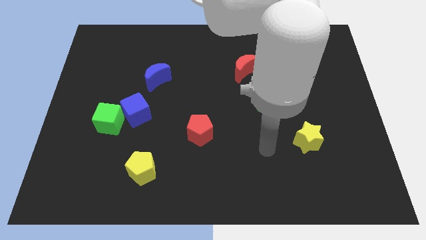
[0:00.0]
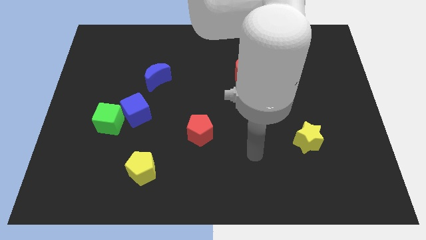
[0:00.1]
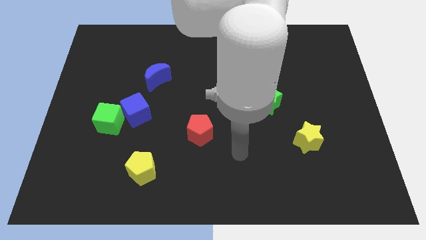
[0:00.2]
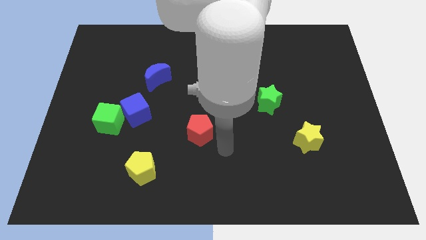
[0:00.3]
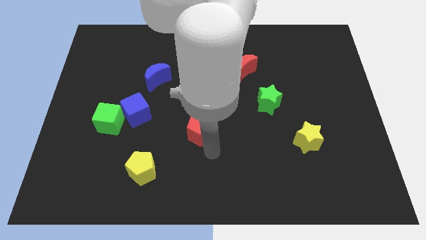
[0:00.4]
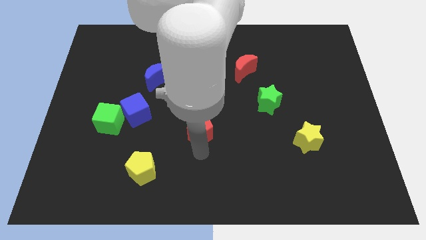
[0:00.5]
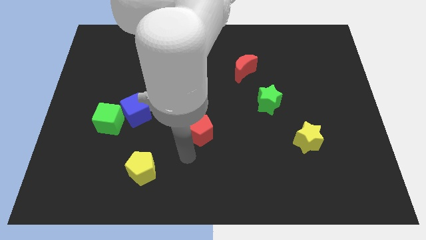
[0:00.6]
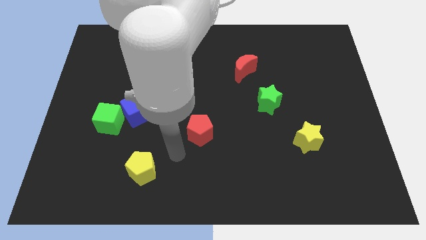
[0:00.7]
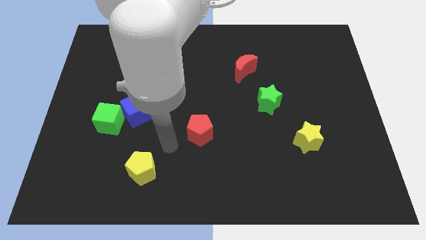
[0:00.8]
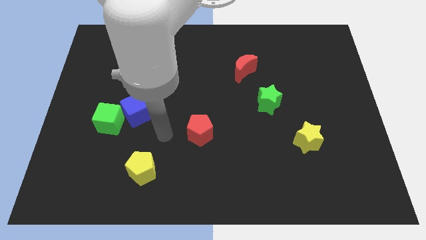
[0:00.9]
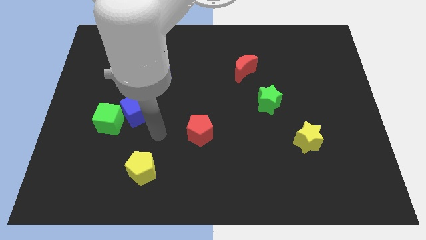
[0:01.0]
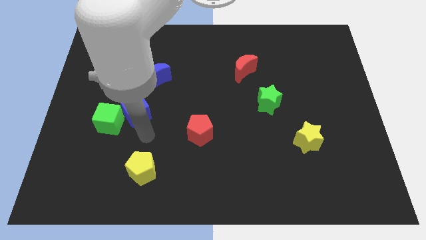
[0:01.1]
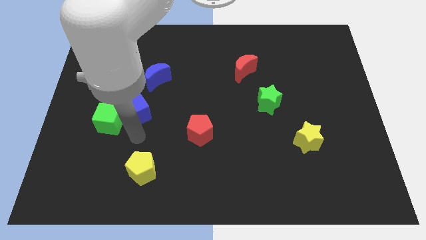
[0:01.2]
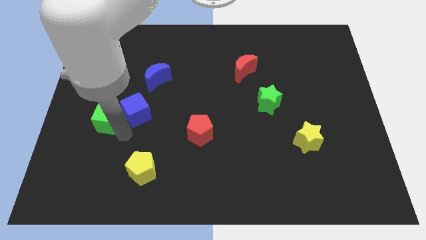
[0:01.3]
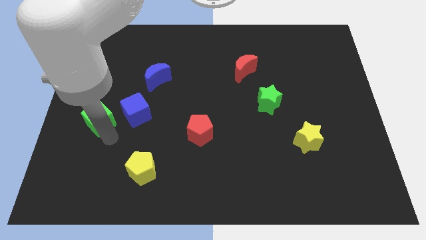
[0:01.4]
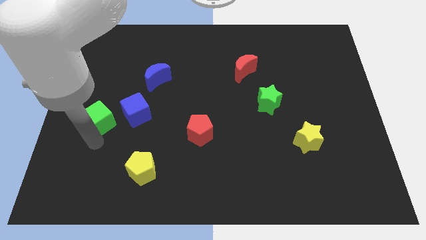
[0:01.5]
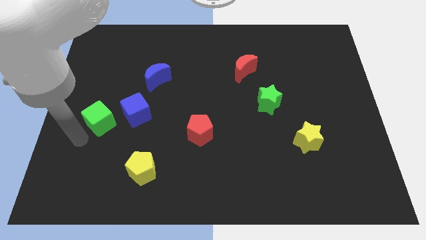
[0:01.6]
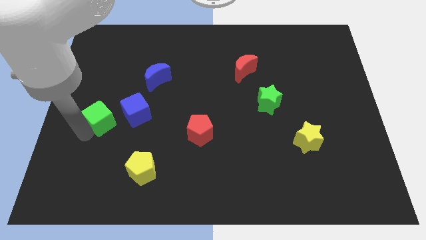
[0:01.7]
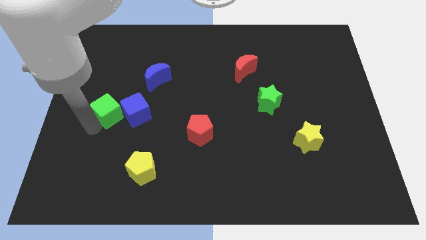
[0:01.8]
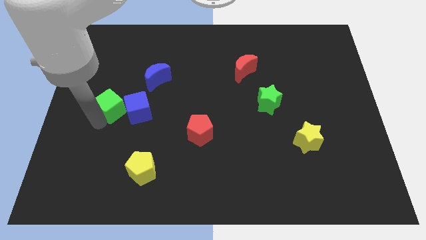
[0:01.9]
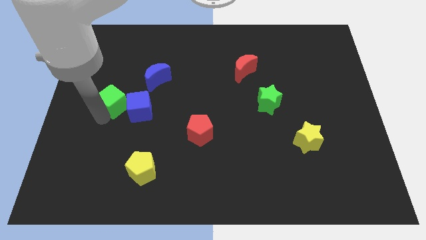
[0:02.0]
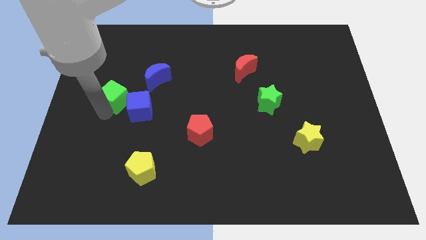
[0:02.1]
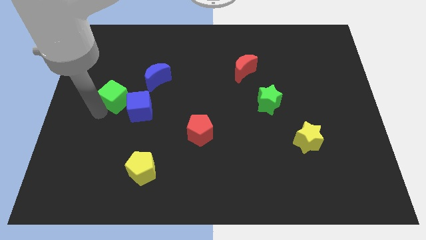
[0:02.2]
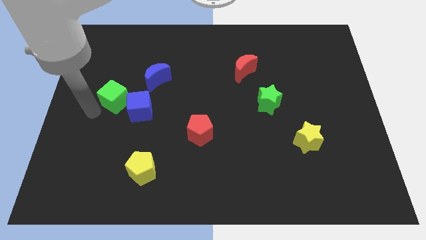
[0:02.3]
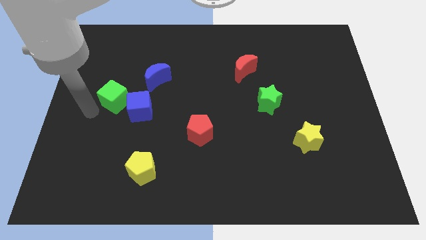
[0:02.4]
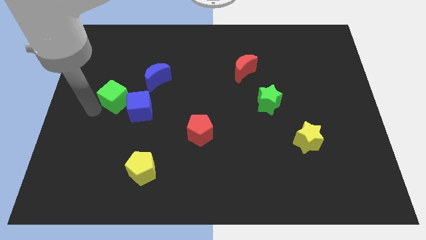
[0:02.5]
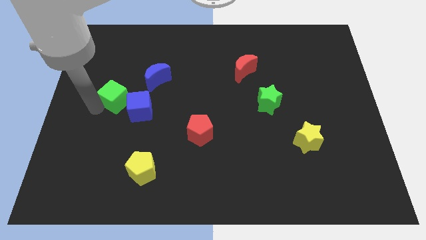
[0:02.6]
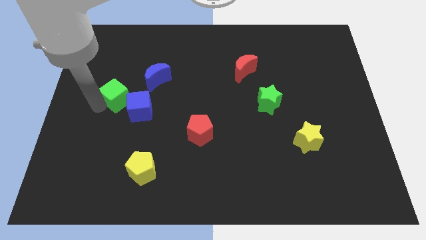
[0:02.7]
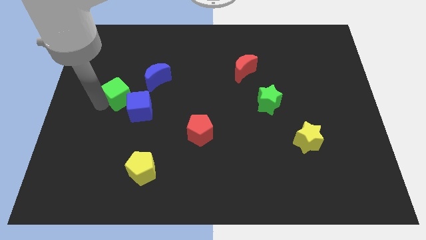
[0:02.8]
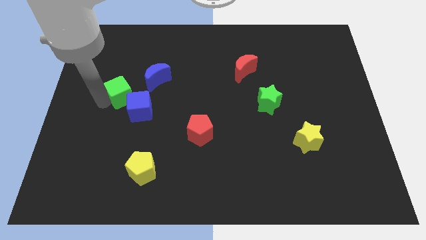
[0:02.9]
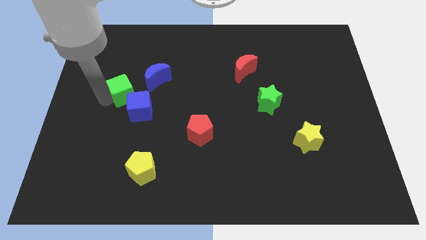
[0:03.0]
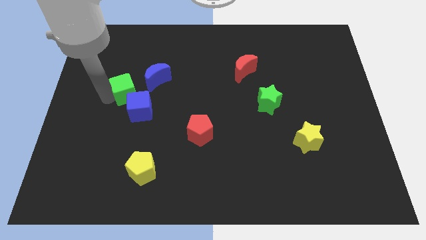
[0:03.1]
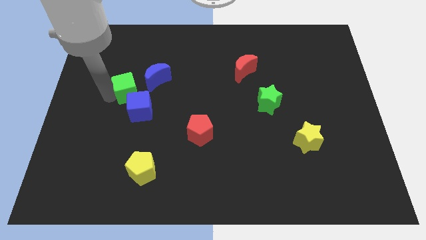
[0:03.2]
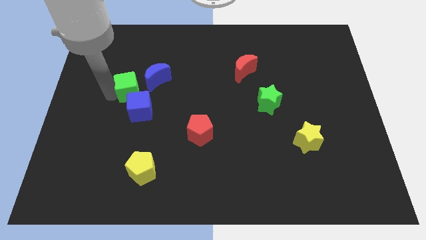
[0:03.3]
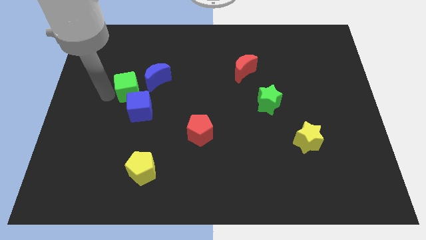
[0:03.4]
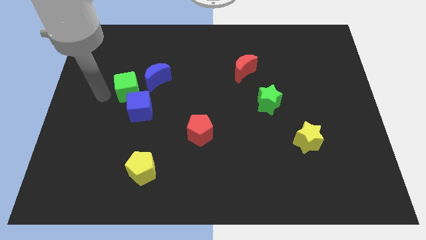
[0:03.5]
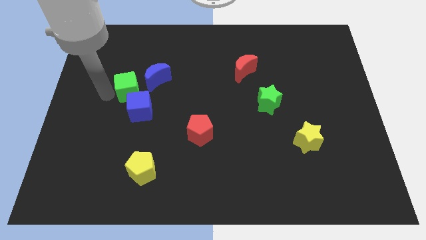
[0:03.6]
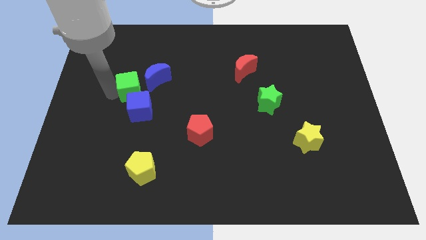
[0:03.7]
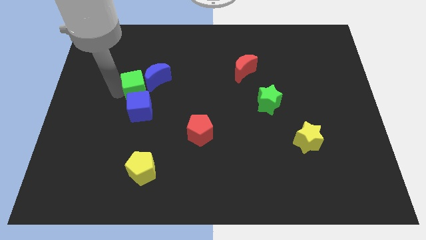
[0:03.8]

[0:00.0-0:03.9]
slide the green cube towards the blue moon

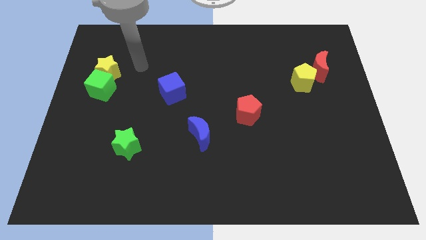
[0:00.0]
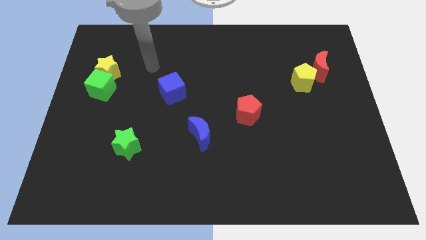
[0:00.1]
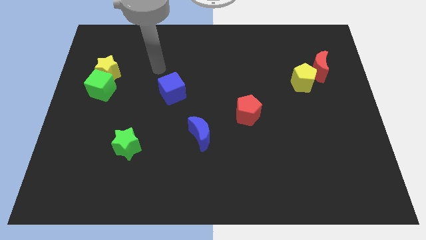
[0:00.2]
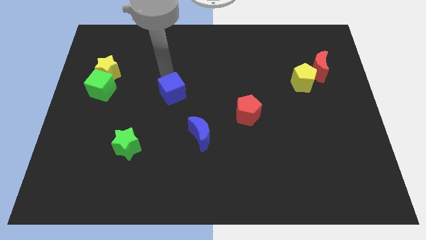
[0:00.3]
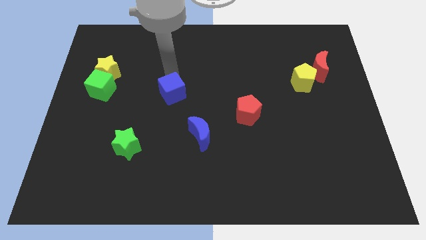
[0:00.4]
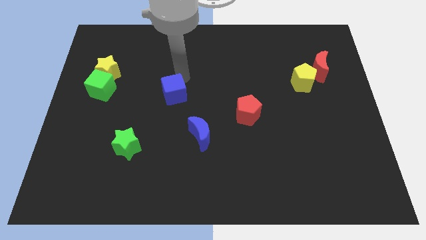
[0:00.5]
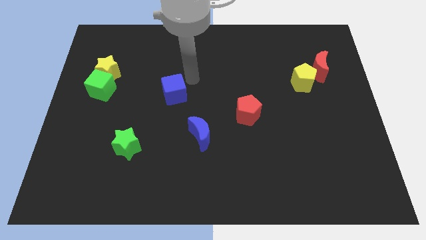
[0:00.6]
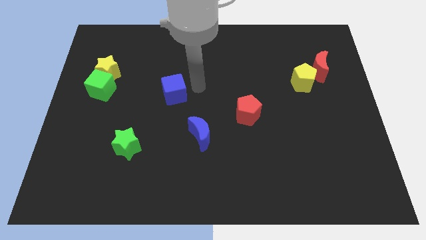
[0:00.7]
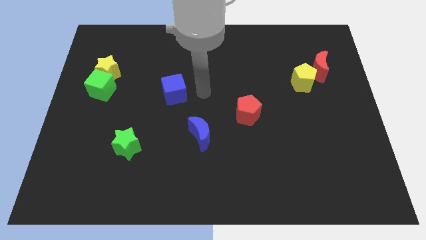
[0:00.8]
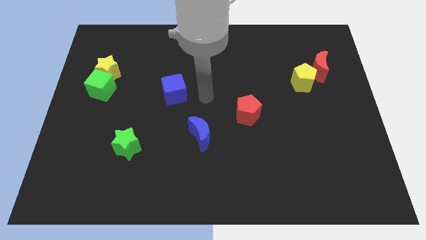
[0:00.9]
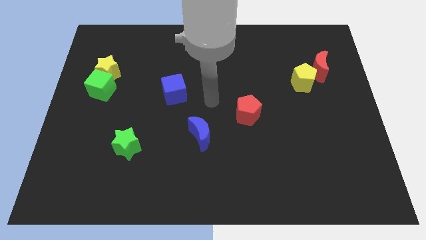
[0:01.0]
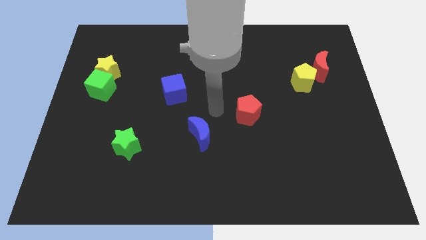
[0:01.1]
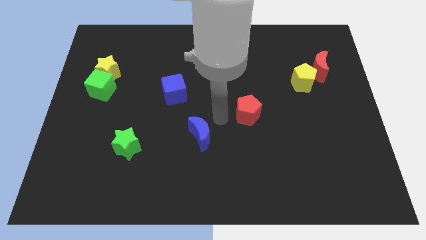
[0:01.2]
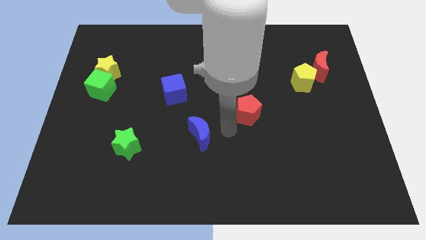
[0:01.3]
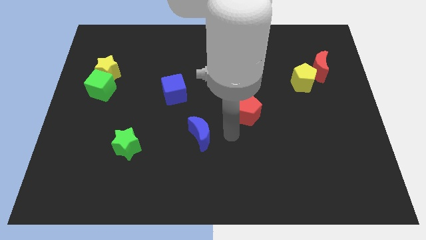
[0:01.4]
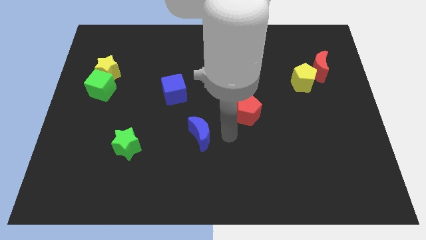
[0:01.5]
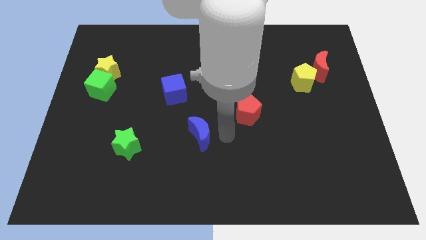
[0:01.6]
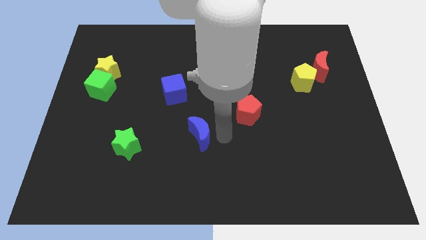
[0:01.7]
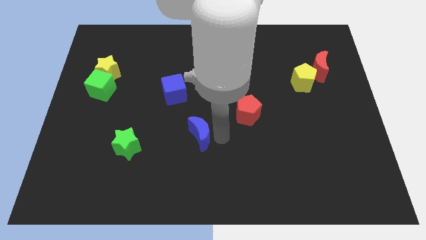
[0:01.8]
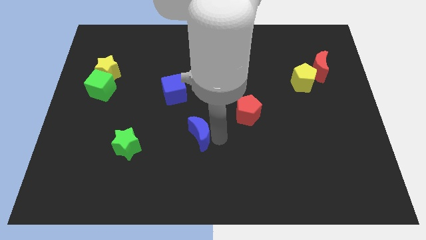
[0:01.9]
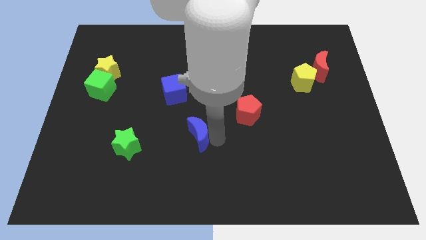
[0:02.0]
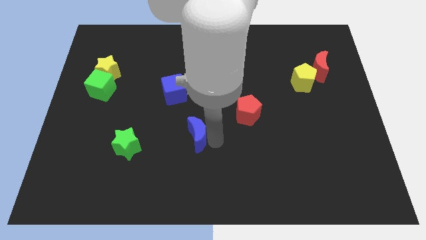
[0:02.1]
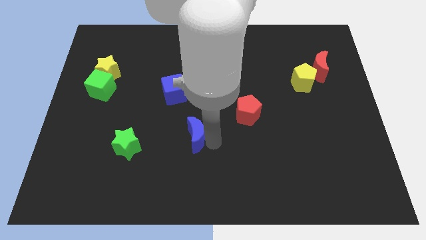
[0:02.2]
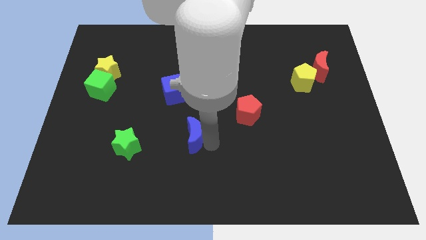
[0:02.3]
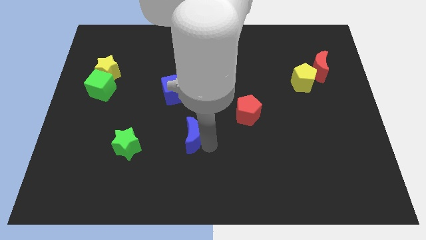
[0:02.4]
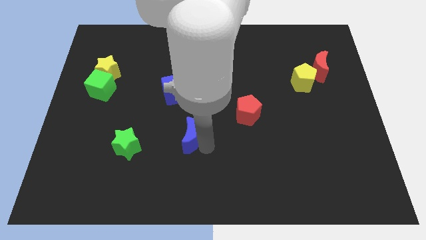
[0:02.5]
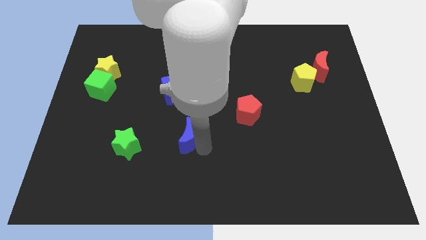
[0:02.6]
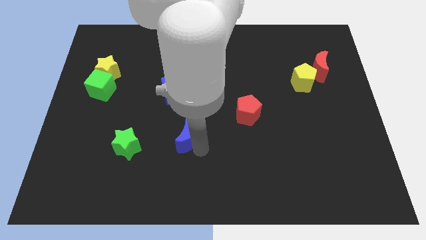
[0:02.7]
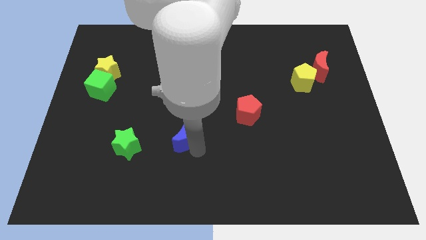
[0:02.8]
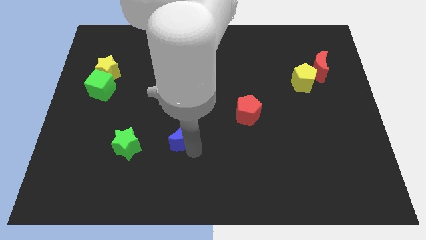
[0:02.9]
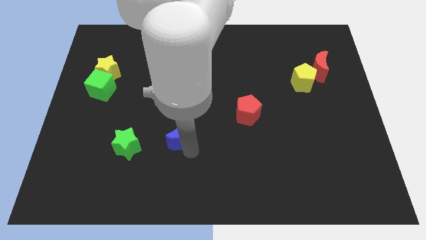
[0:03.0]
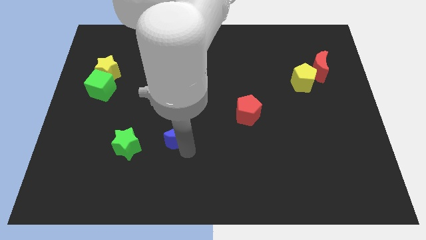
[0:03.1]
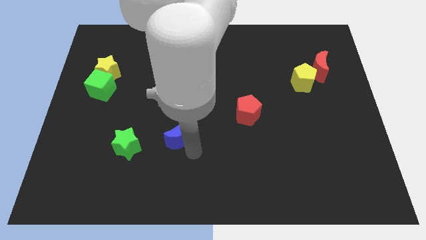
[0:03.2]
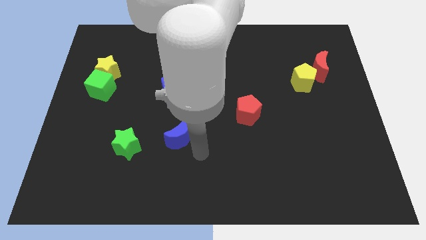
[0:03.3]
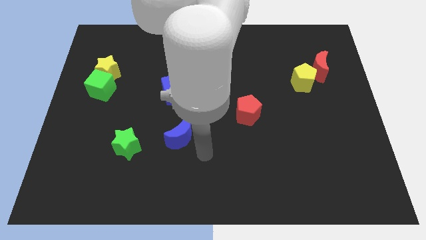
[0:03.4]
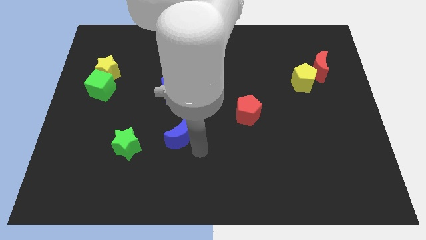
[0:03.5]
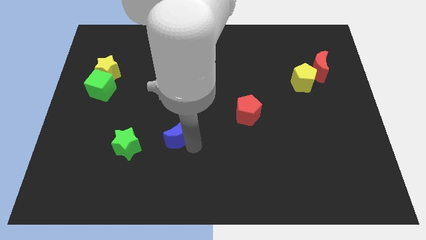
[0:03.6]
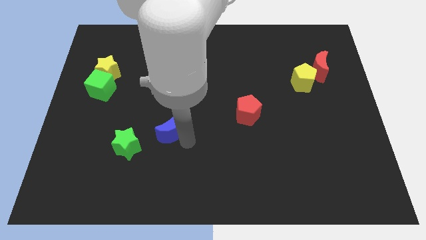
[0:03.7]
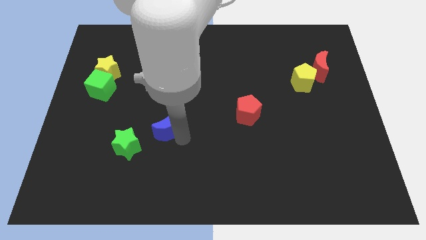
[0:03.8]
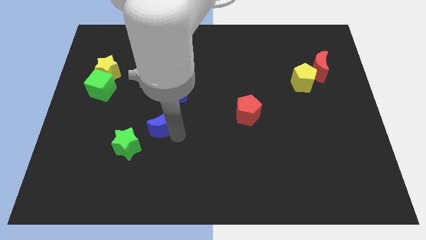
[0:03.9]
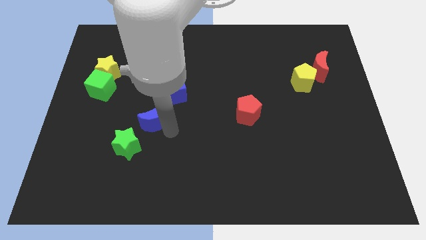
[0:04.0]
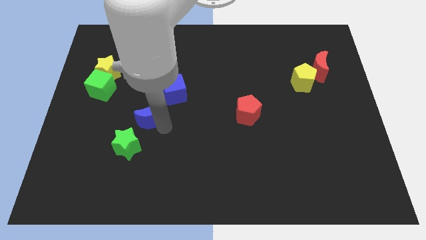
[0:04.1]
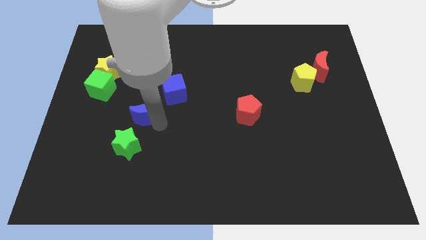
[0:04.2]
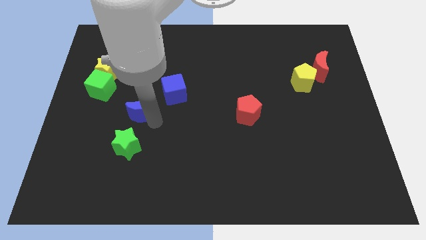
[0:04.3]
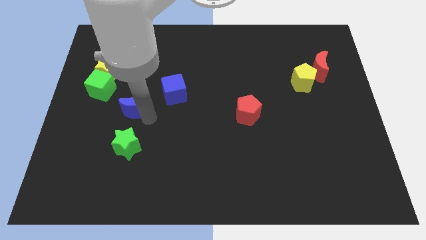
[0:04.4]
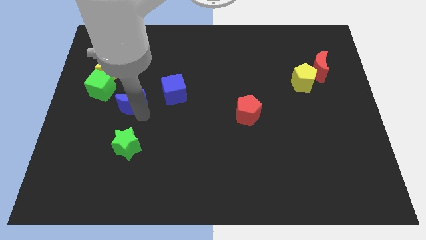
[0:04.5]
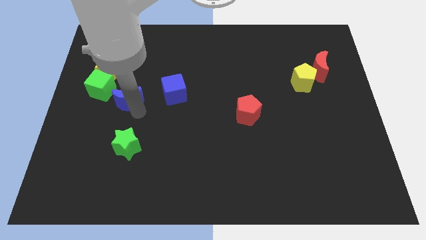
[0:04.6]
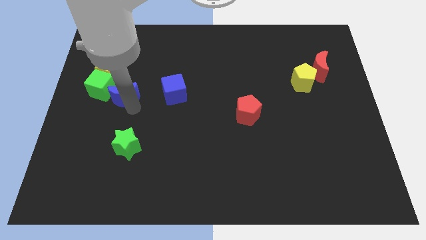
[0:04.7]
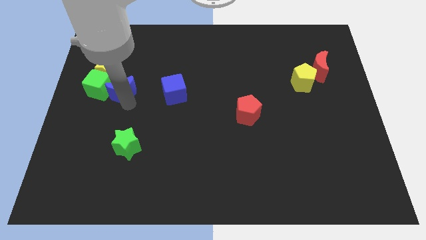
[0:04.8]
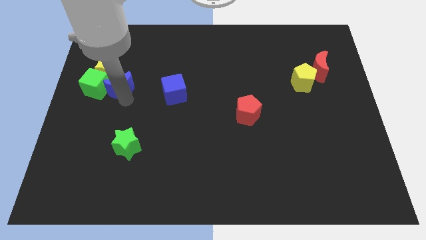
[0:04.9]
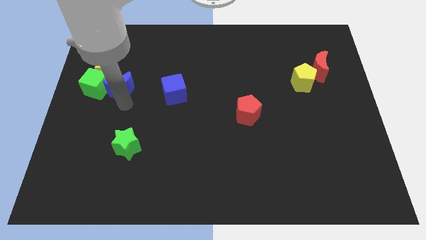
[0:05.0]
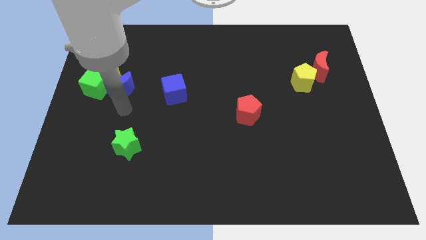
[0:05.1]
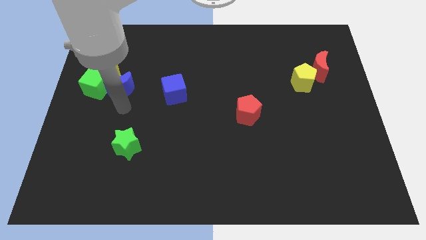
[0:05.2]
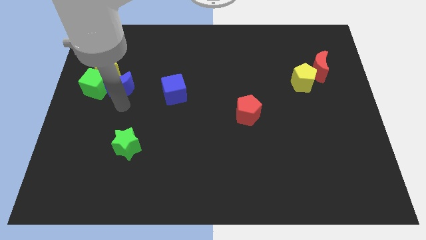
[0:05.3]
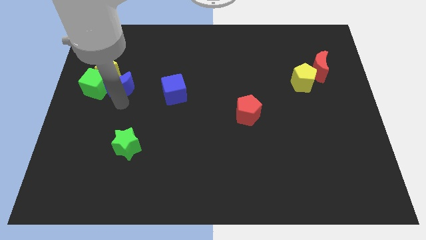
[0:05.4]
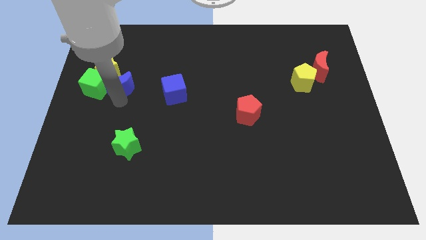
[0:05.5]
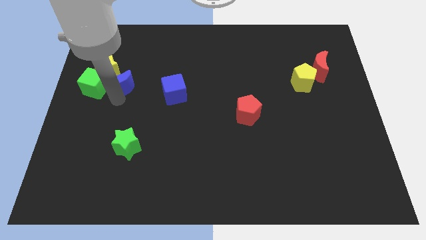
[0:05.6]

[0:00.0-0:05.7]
put the blue moon to the yellow star
